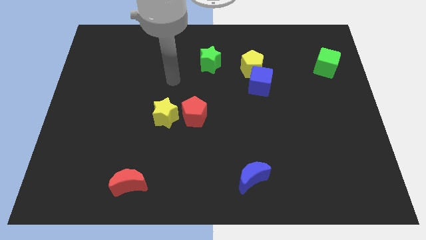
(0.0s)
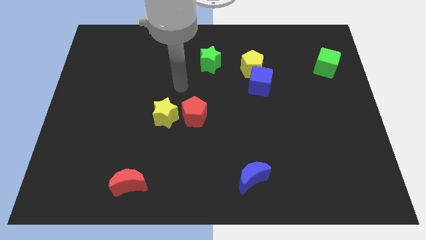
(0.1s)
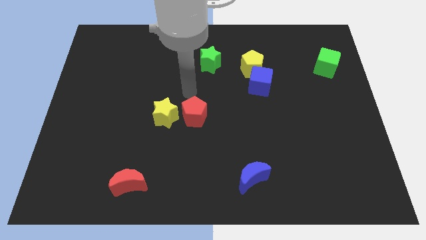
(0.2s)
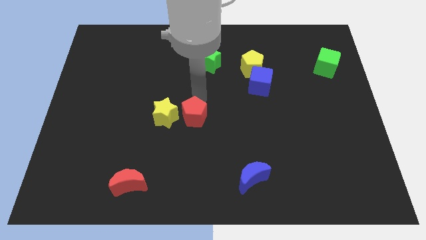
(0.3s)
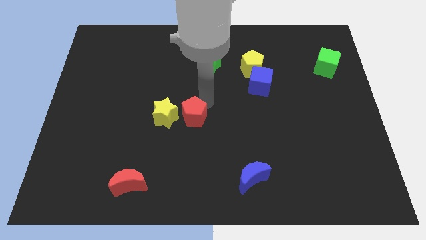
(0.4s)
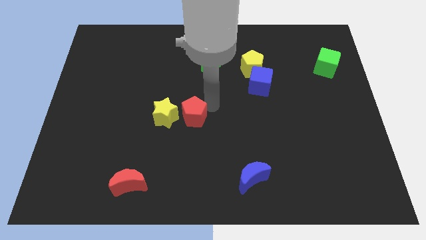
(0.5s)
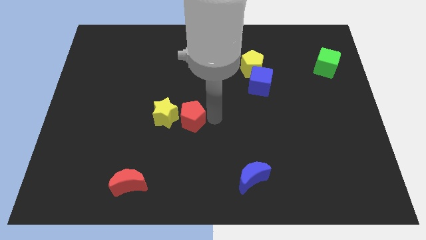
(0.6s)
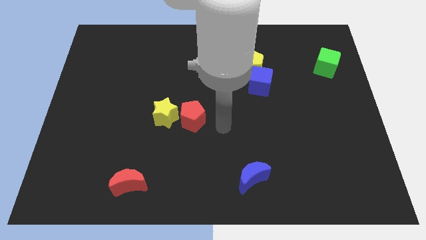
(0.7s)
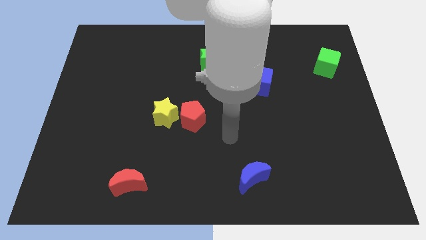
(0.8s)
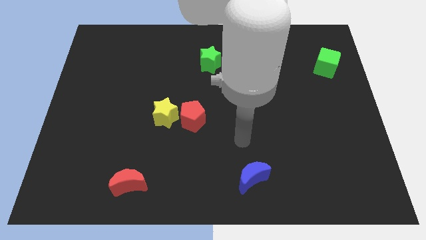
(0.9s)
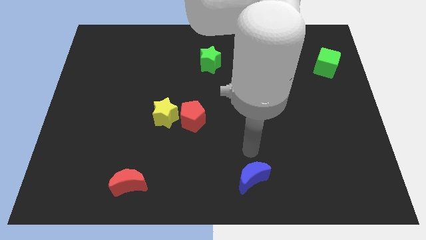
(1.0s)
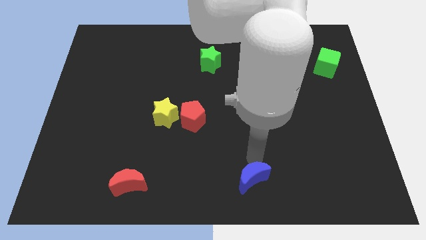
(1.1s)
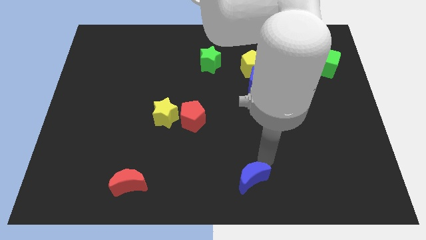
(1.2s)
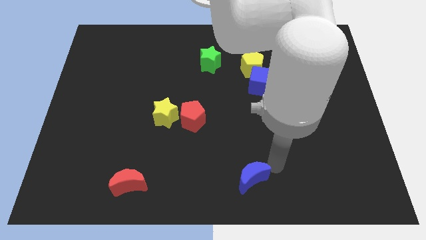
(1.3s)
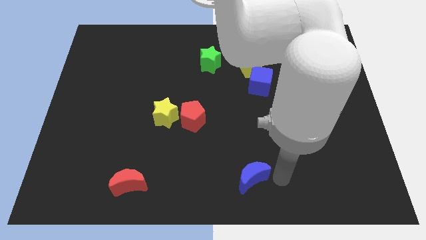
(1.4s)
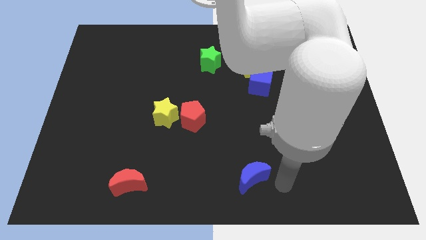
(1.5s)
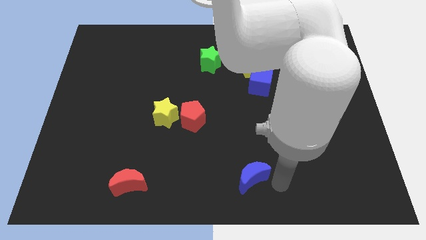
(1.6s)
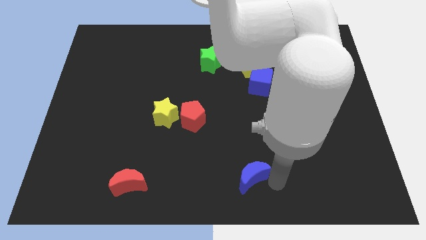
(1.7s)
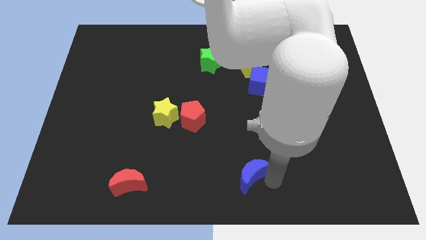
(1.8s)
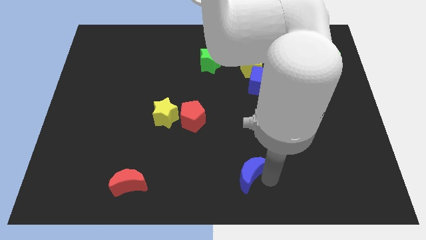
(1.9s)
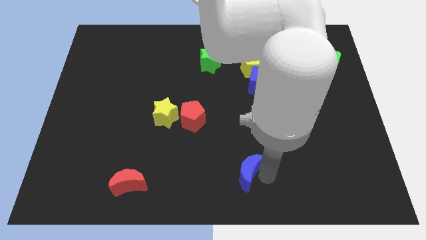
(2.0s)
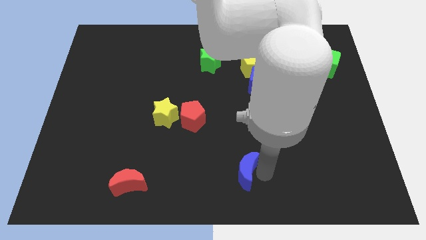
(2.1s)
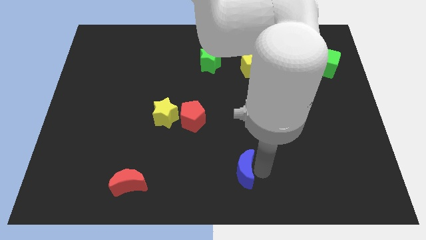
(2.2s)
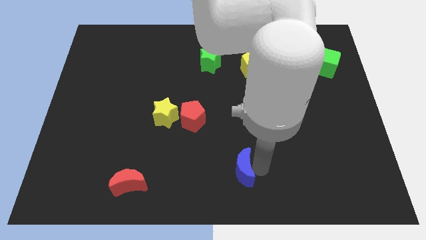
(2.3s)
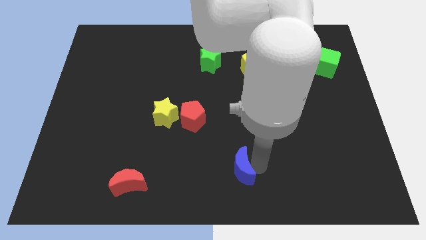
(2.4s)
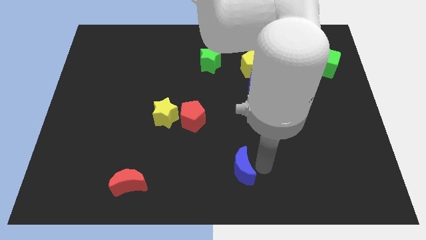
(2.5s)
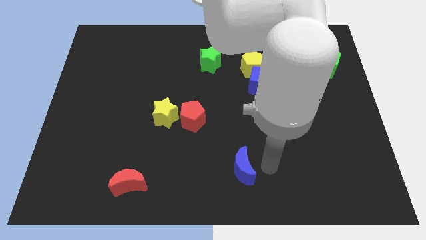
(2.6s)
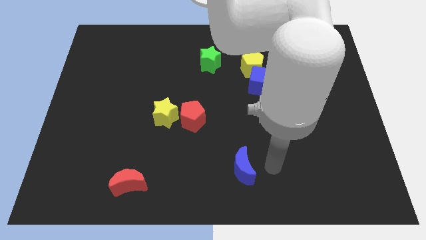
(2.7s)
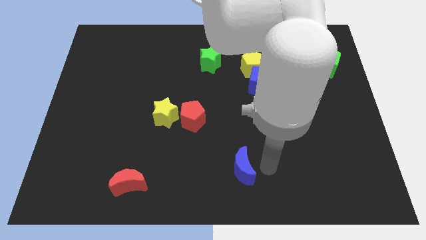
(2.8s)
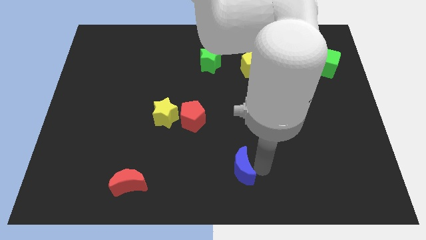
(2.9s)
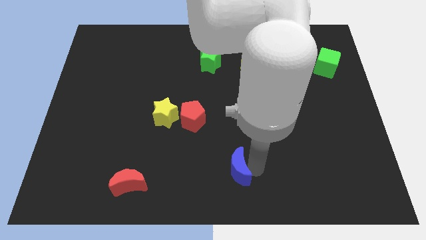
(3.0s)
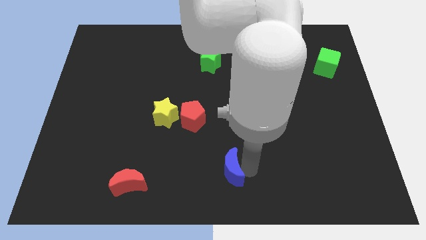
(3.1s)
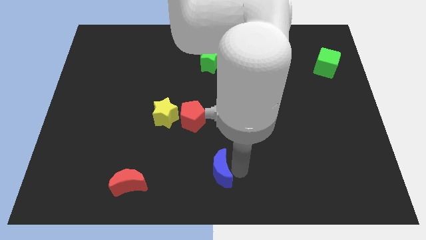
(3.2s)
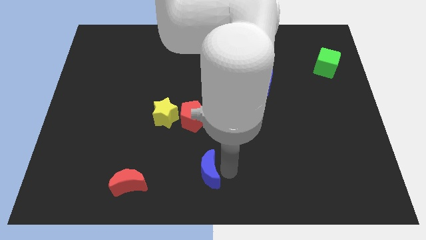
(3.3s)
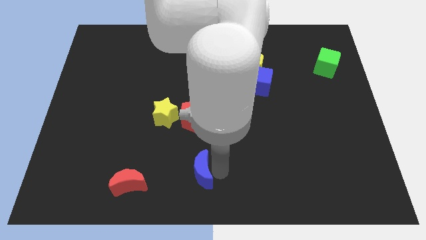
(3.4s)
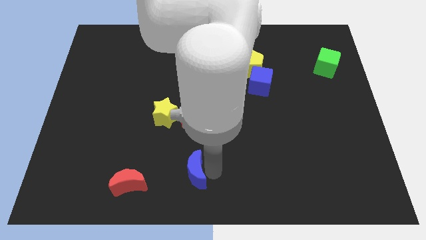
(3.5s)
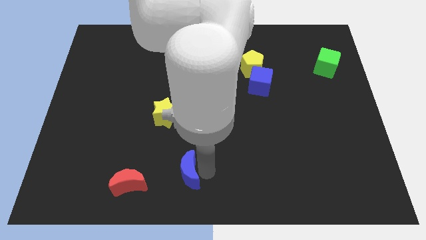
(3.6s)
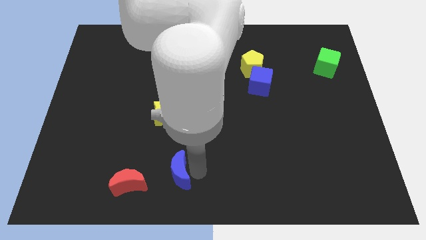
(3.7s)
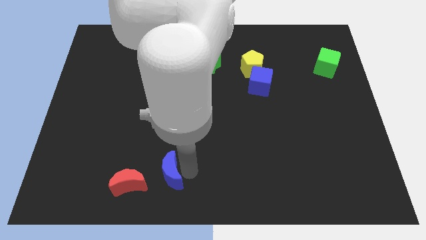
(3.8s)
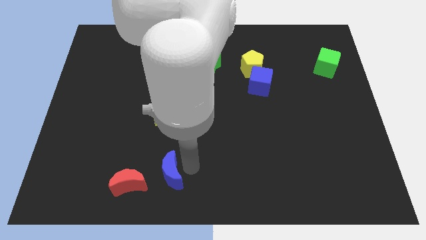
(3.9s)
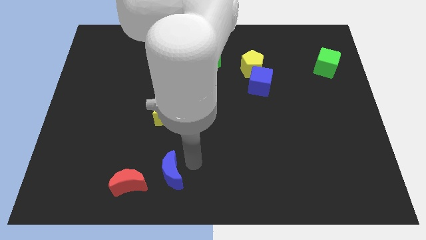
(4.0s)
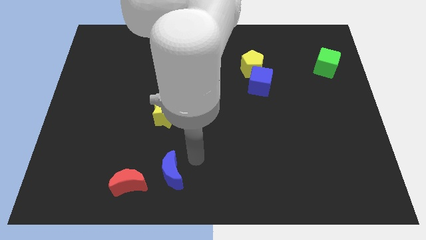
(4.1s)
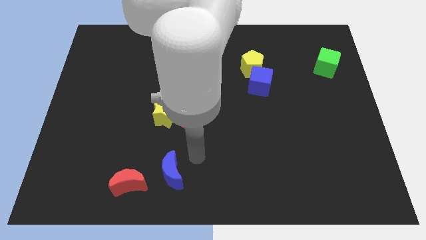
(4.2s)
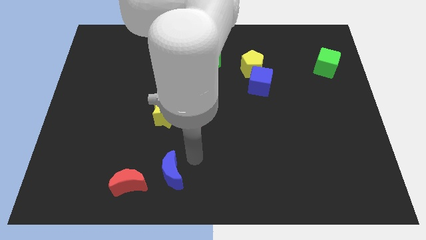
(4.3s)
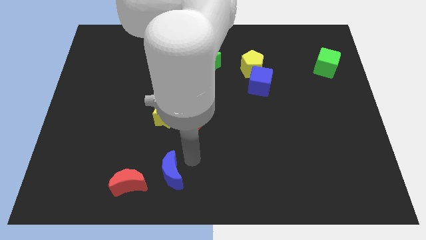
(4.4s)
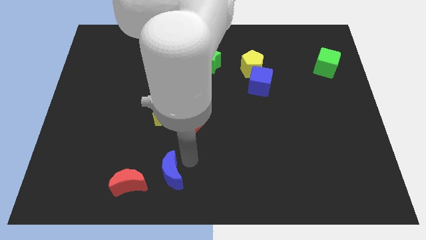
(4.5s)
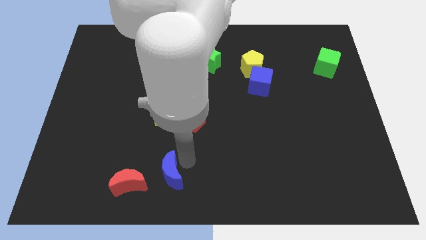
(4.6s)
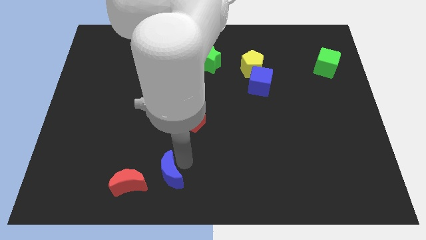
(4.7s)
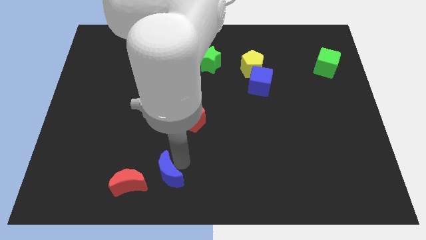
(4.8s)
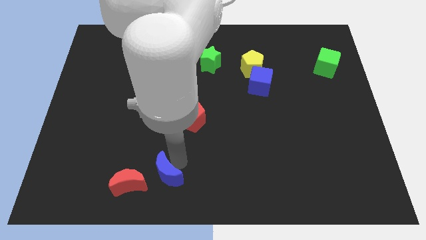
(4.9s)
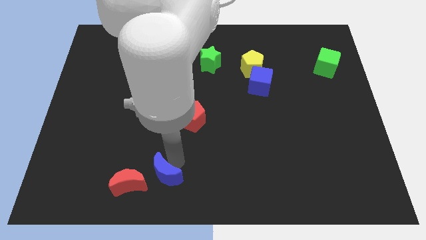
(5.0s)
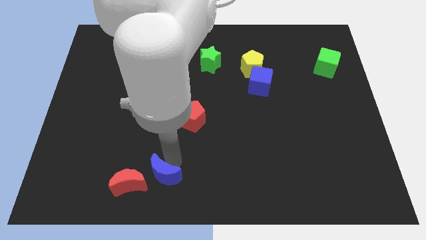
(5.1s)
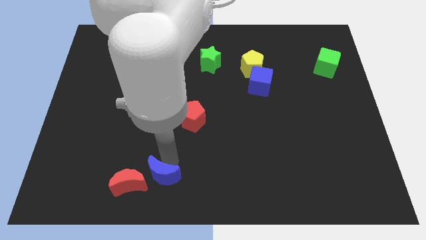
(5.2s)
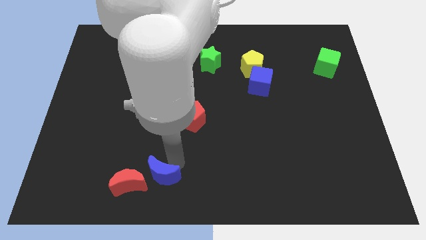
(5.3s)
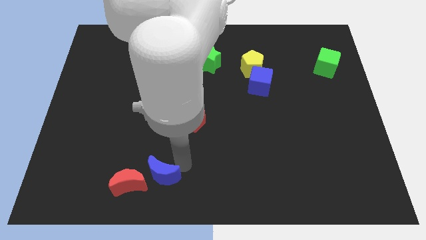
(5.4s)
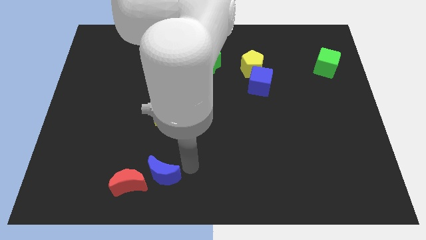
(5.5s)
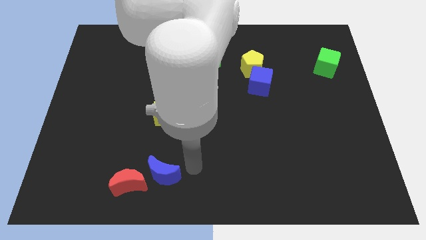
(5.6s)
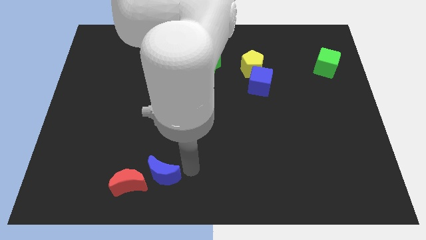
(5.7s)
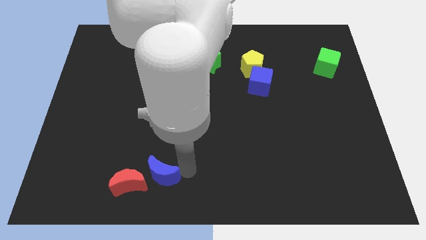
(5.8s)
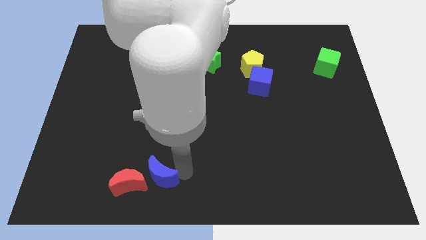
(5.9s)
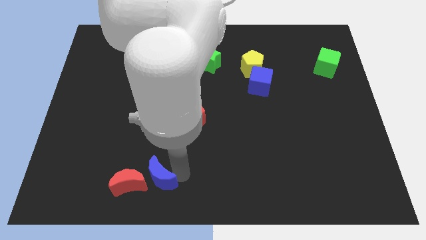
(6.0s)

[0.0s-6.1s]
put the blue moon towards the red moon

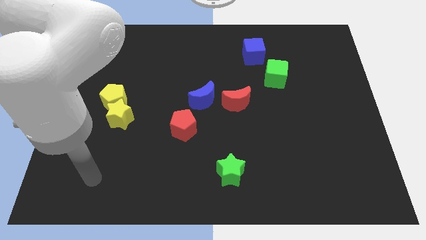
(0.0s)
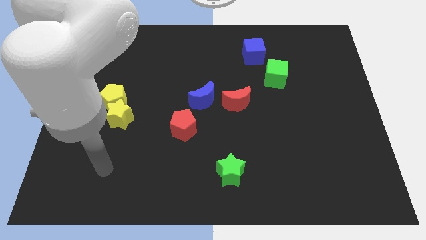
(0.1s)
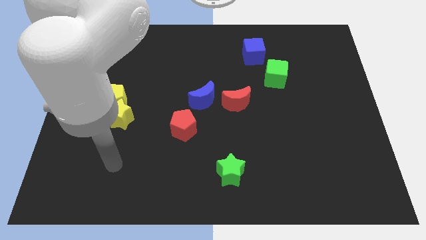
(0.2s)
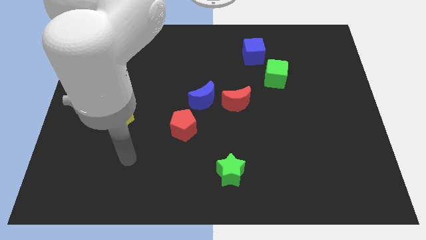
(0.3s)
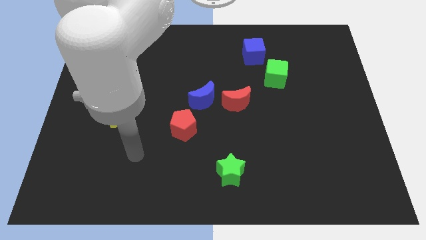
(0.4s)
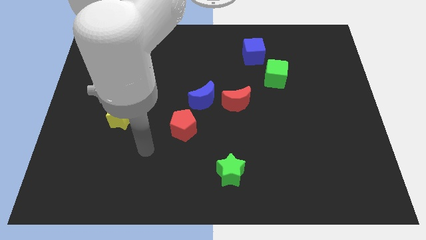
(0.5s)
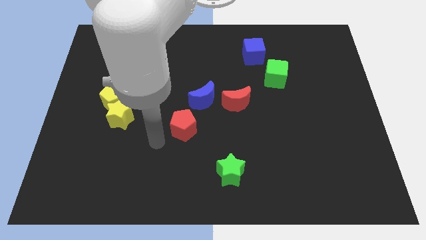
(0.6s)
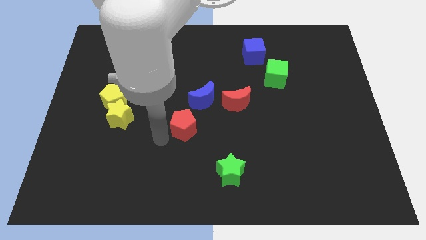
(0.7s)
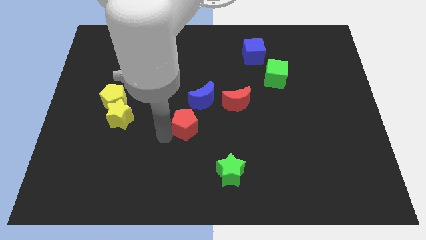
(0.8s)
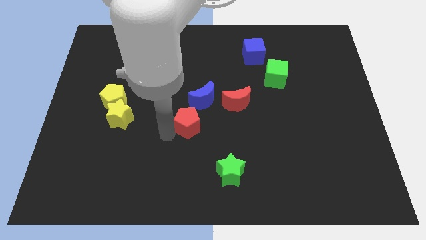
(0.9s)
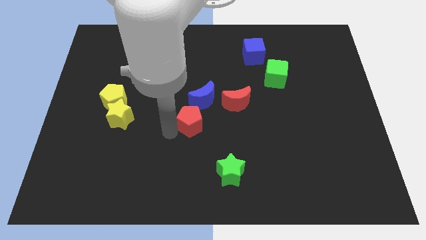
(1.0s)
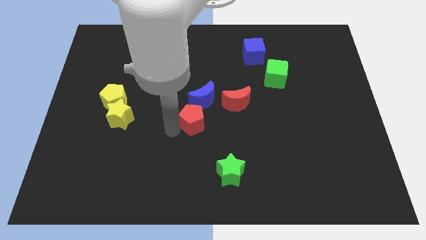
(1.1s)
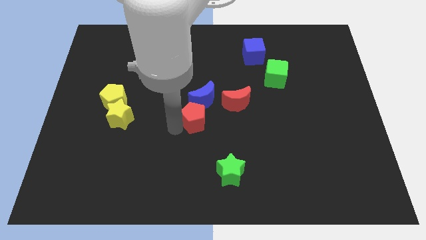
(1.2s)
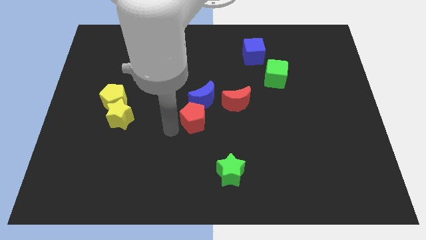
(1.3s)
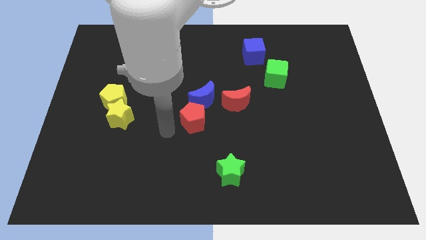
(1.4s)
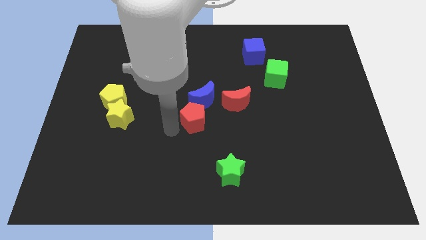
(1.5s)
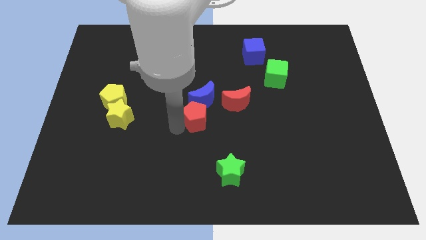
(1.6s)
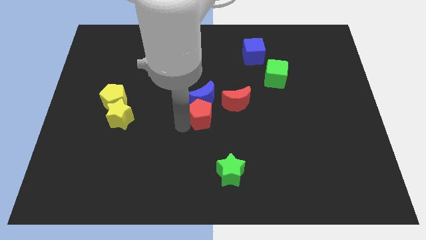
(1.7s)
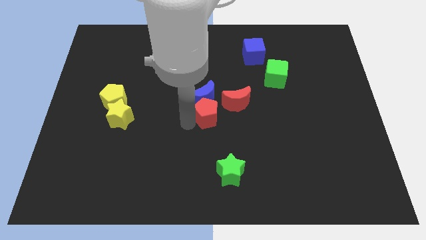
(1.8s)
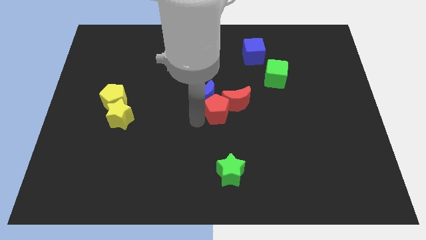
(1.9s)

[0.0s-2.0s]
push the red pentagon close to the red moon
